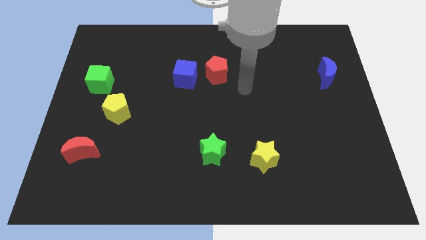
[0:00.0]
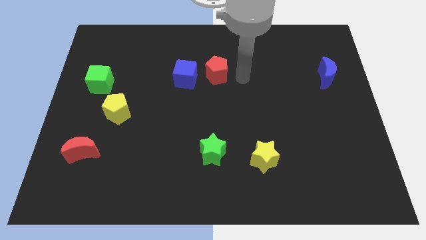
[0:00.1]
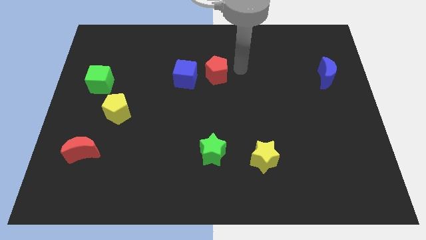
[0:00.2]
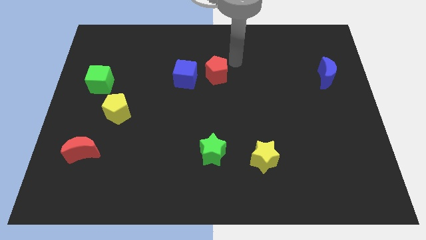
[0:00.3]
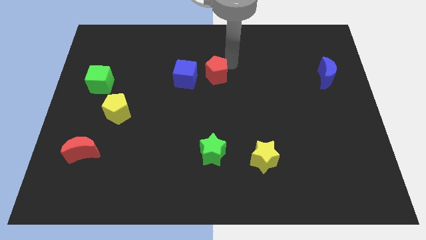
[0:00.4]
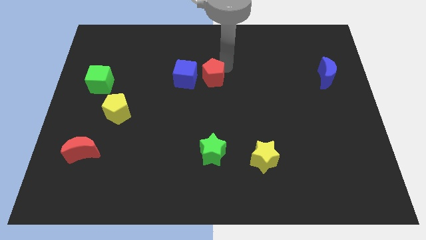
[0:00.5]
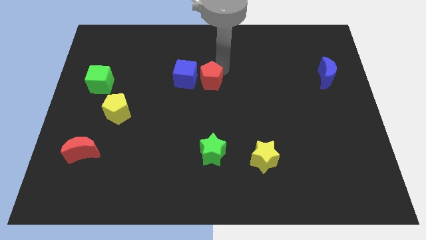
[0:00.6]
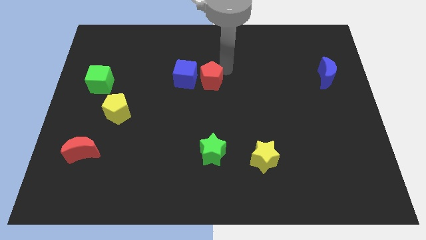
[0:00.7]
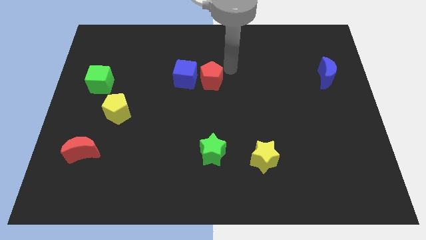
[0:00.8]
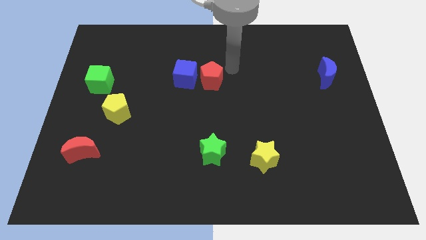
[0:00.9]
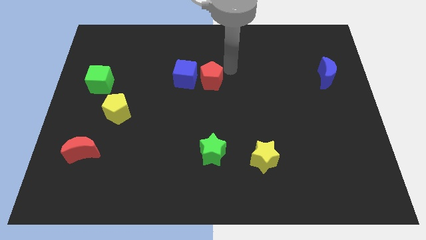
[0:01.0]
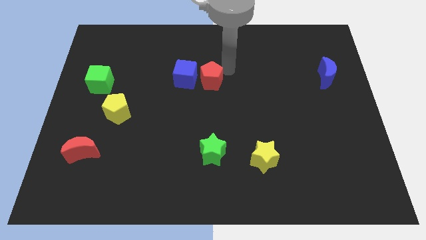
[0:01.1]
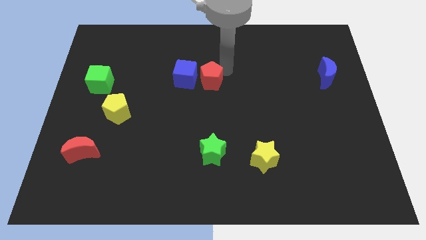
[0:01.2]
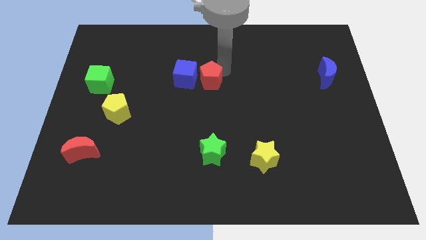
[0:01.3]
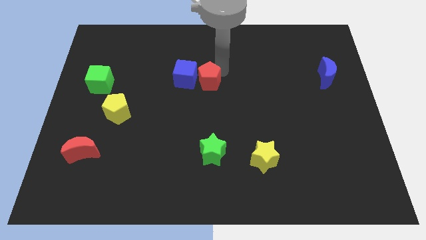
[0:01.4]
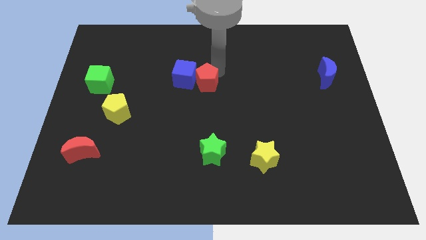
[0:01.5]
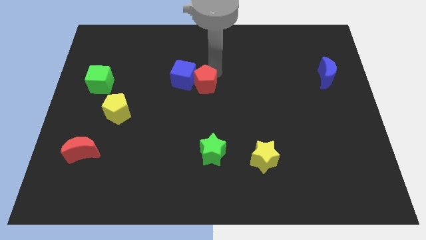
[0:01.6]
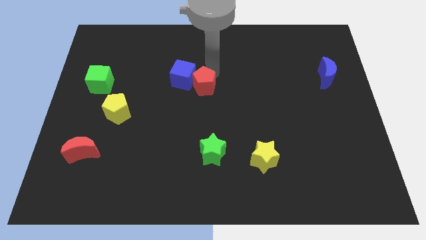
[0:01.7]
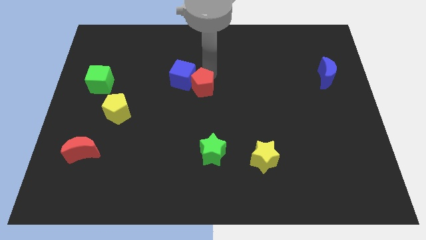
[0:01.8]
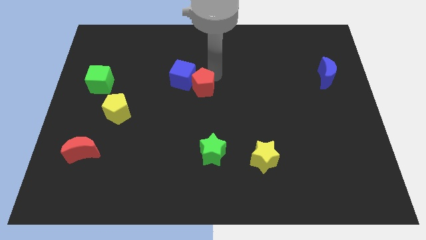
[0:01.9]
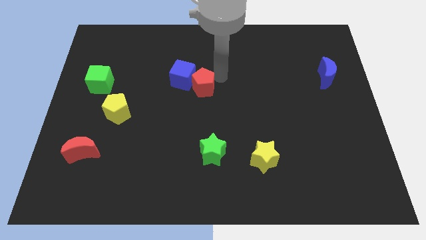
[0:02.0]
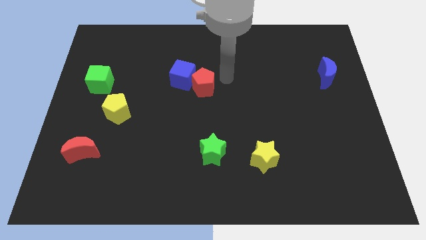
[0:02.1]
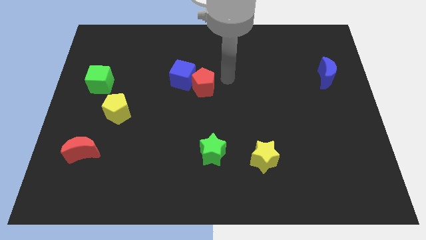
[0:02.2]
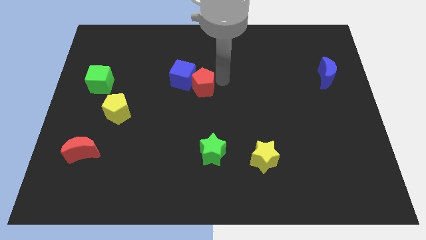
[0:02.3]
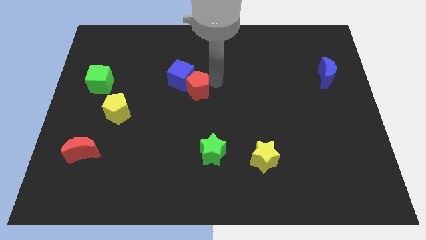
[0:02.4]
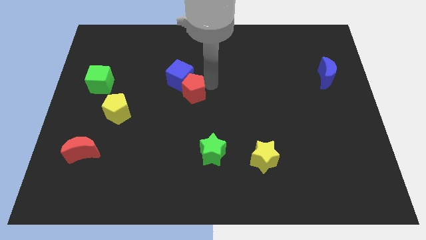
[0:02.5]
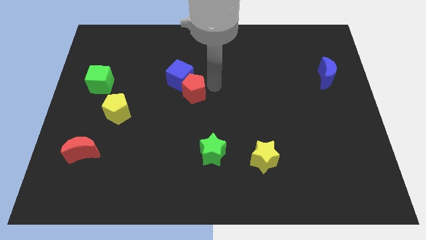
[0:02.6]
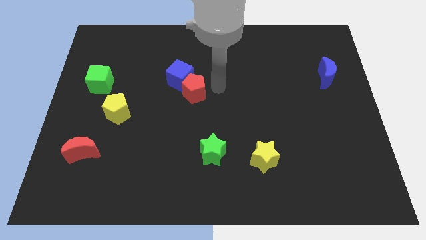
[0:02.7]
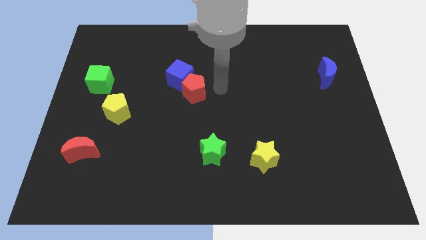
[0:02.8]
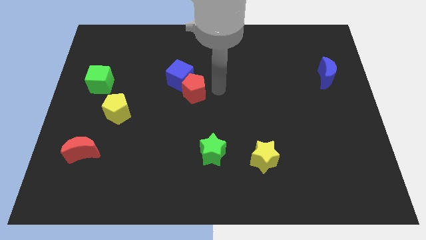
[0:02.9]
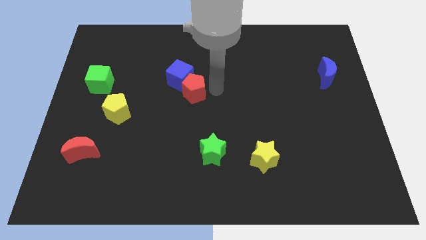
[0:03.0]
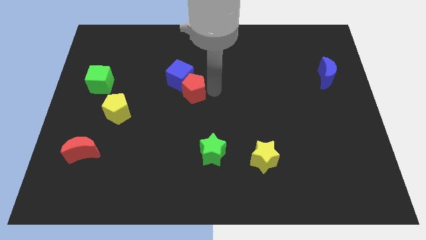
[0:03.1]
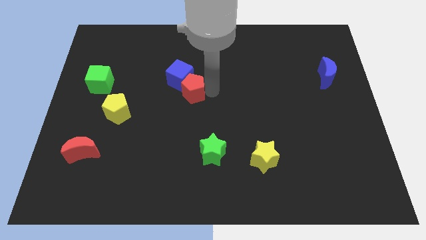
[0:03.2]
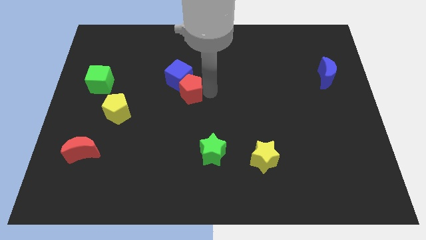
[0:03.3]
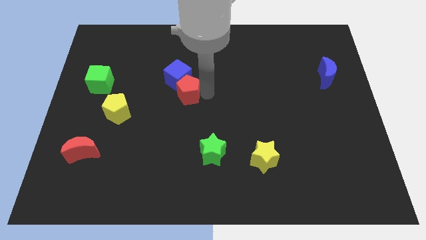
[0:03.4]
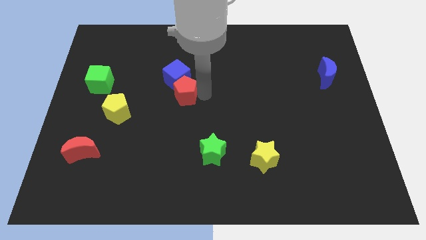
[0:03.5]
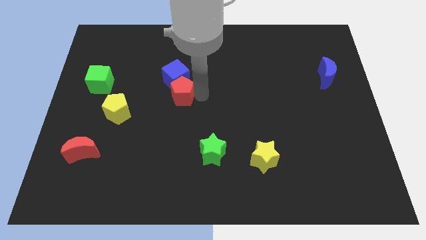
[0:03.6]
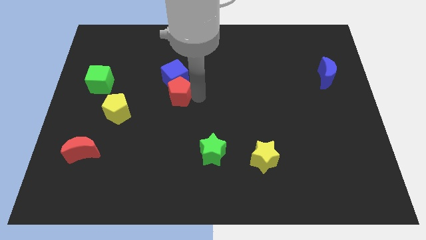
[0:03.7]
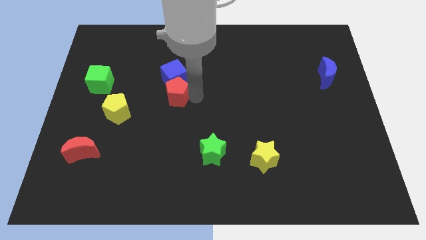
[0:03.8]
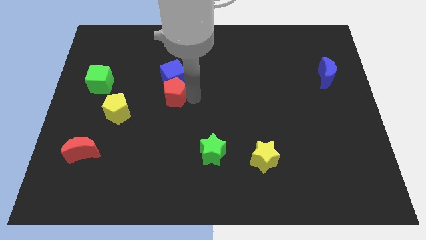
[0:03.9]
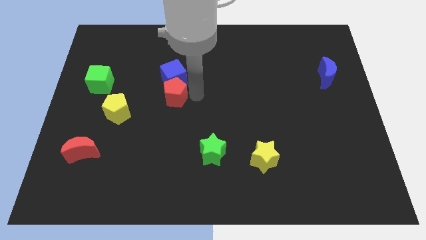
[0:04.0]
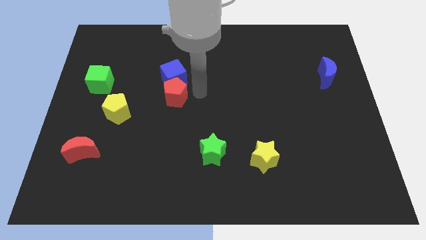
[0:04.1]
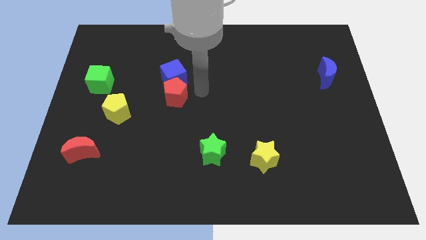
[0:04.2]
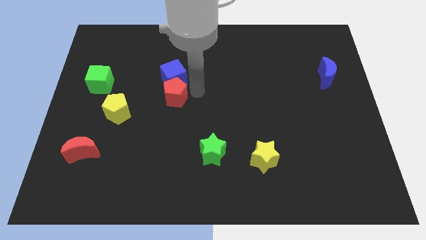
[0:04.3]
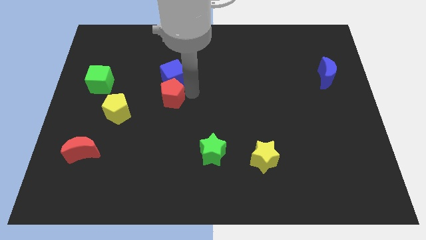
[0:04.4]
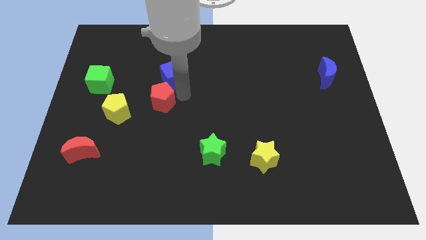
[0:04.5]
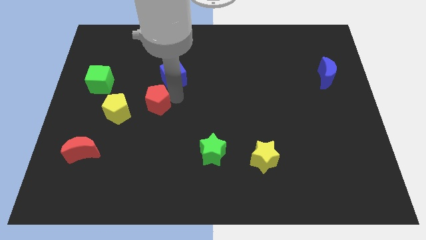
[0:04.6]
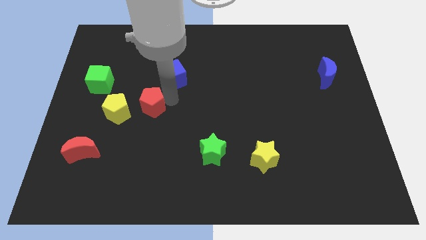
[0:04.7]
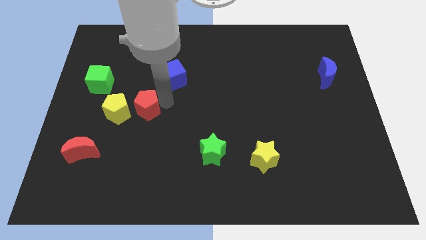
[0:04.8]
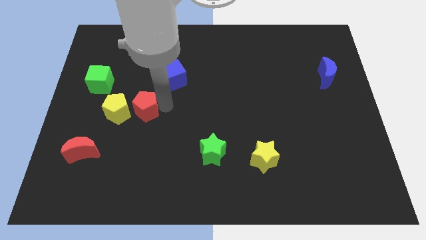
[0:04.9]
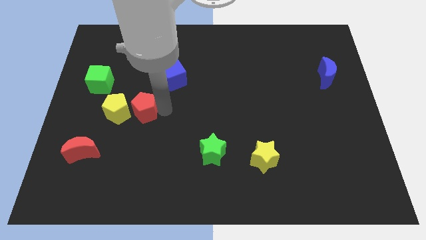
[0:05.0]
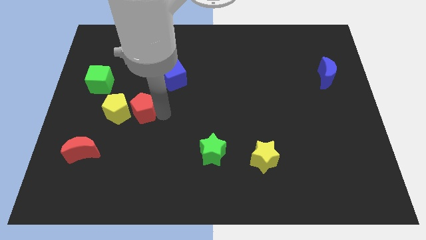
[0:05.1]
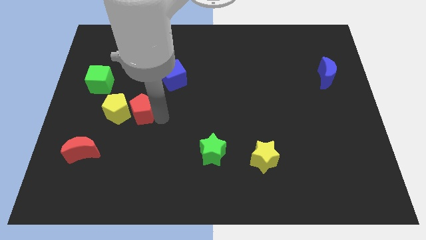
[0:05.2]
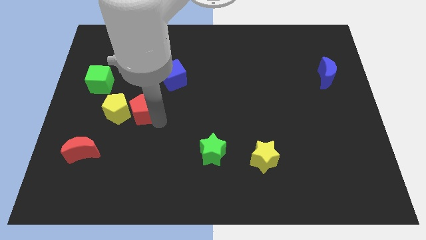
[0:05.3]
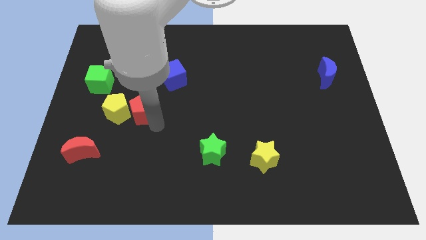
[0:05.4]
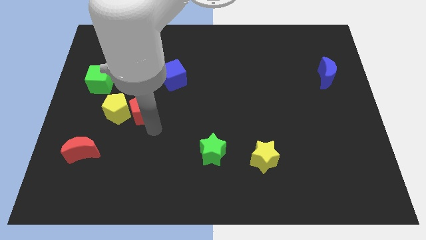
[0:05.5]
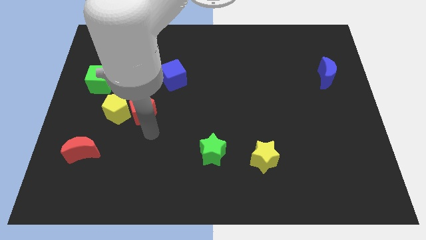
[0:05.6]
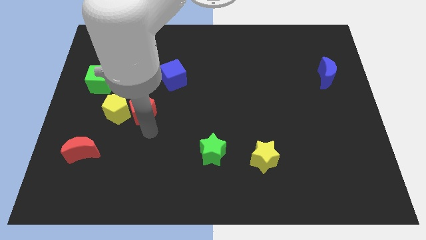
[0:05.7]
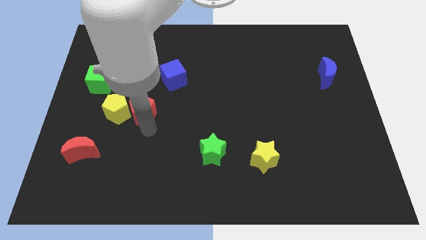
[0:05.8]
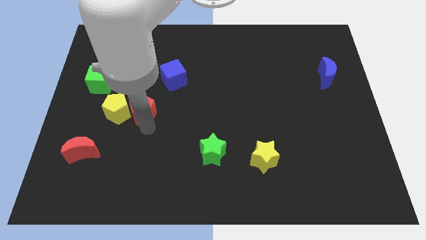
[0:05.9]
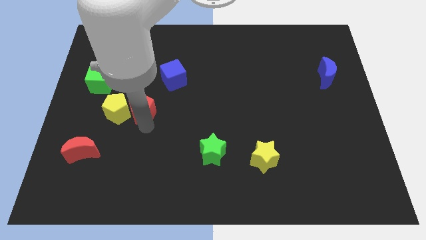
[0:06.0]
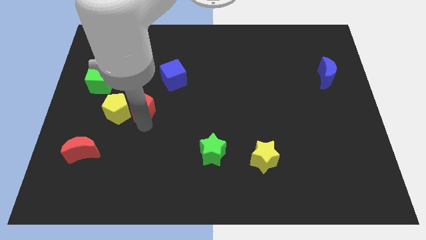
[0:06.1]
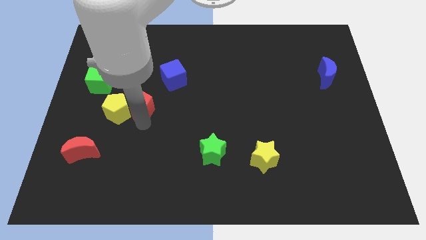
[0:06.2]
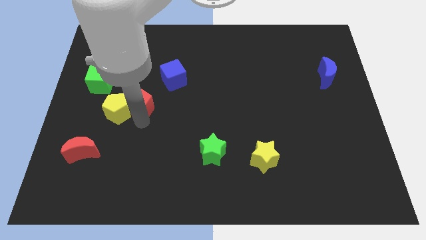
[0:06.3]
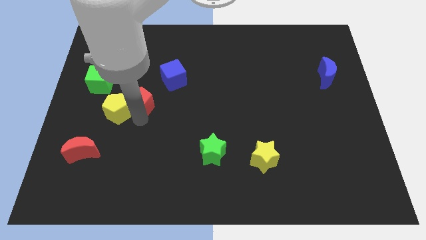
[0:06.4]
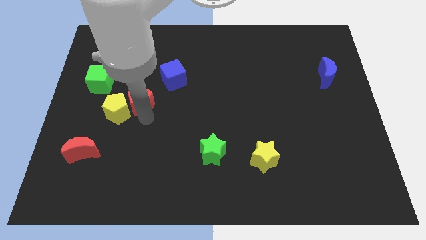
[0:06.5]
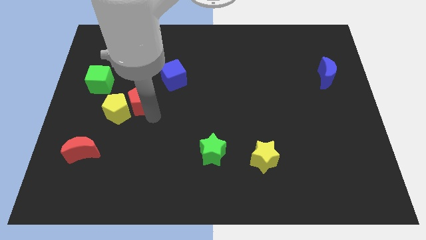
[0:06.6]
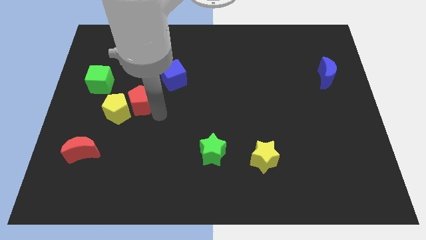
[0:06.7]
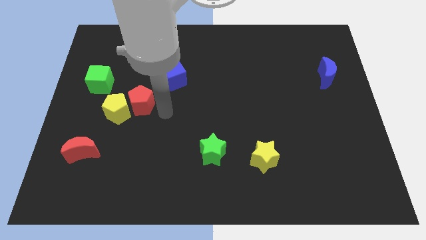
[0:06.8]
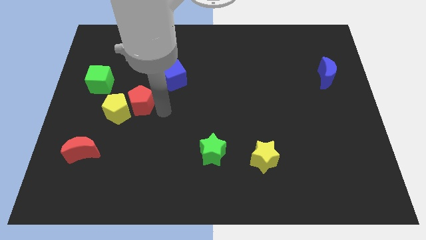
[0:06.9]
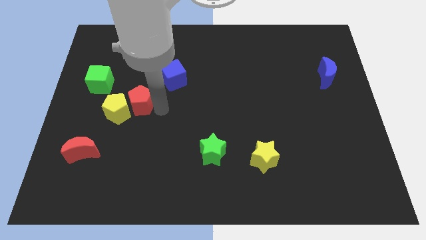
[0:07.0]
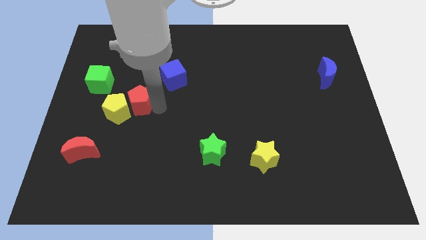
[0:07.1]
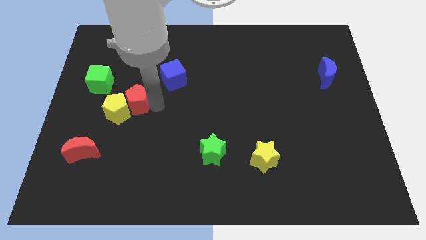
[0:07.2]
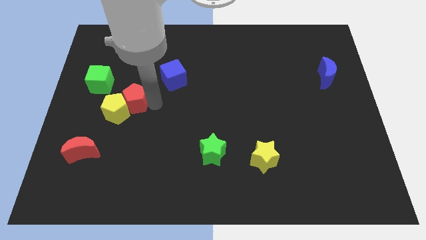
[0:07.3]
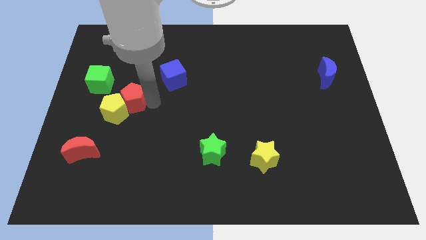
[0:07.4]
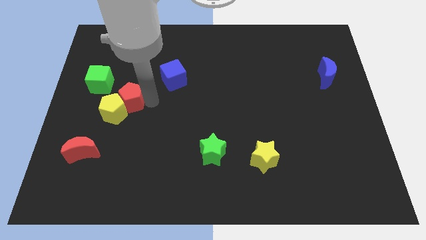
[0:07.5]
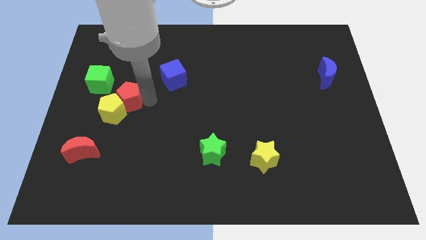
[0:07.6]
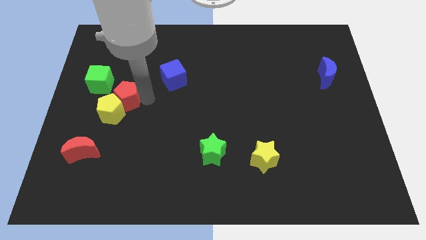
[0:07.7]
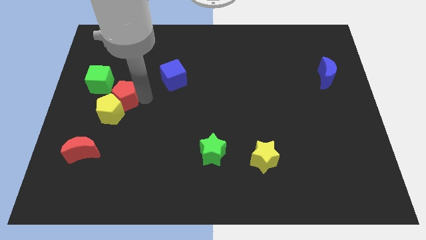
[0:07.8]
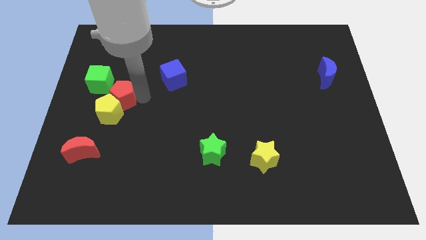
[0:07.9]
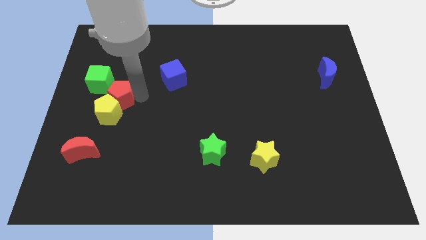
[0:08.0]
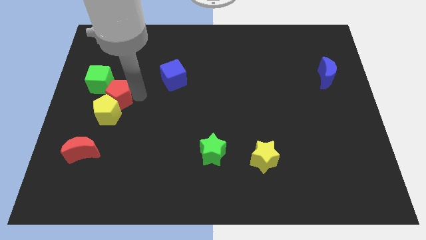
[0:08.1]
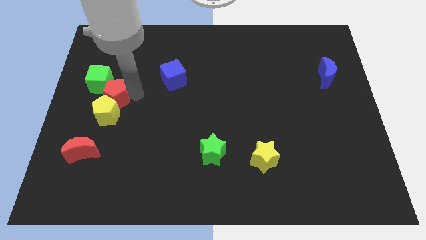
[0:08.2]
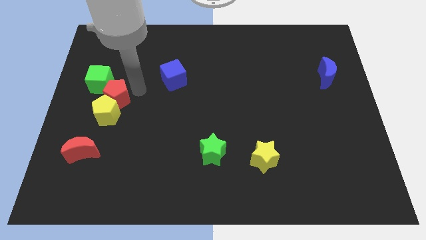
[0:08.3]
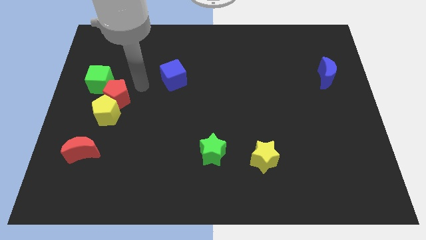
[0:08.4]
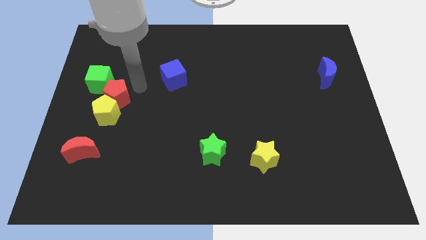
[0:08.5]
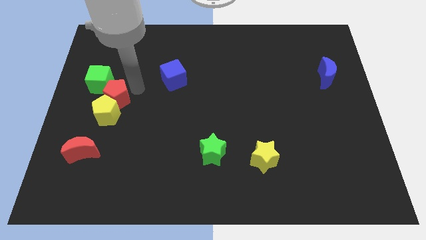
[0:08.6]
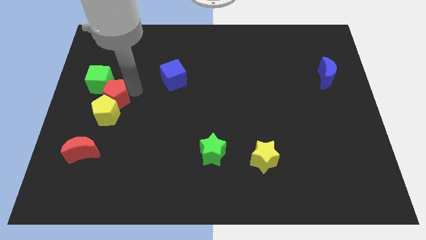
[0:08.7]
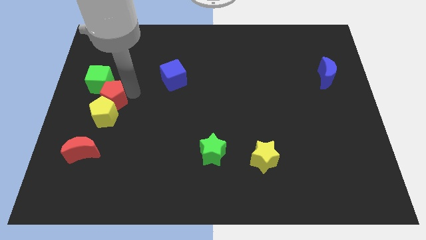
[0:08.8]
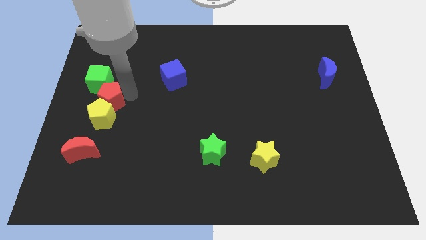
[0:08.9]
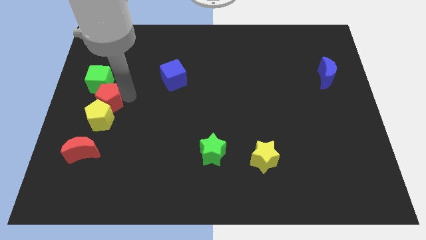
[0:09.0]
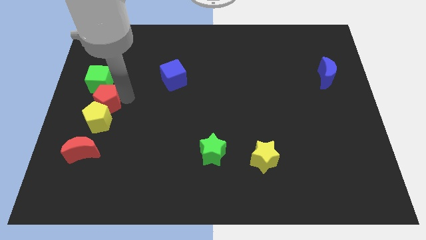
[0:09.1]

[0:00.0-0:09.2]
slide the red pentagon to the center left
